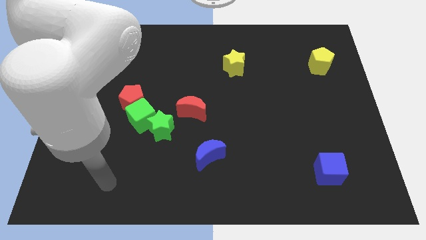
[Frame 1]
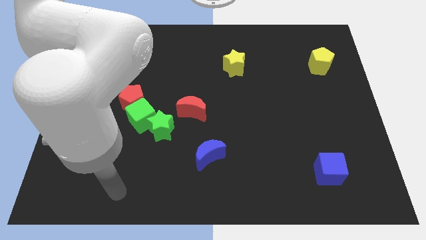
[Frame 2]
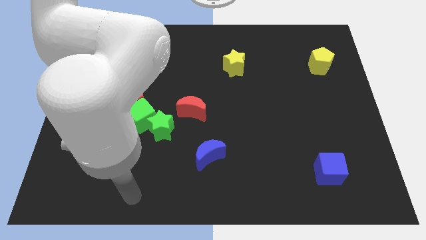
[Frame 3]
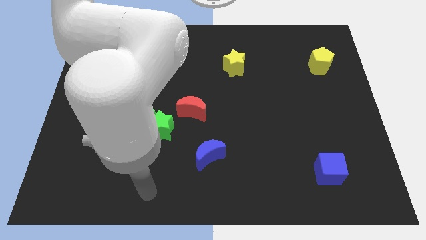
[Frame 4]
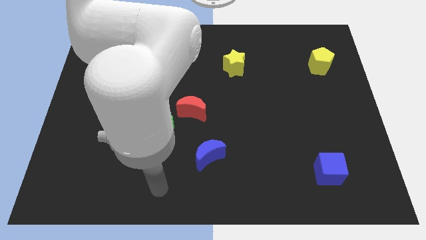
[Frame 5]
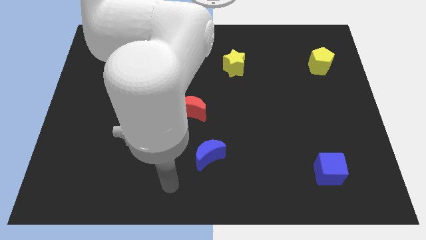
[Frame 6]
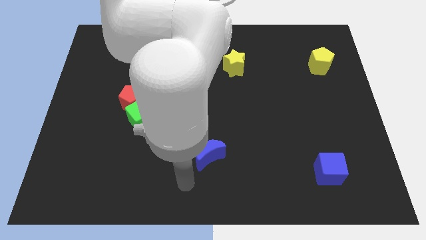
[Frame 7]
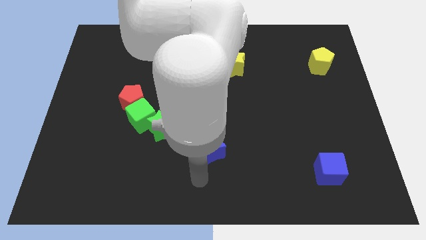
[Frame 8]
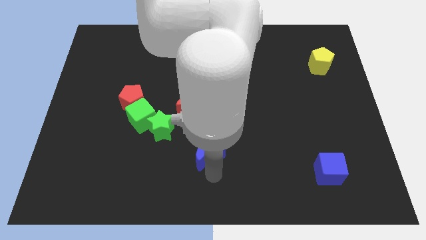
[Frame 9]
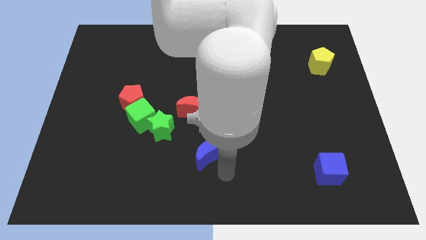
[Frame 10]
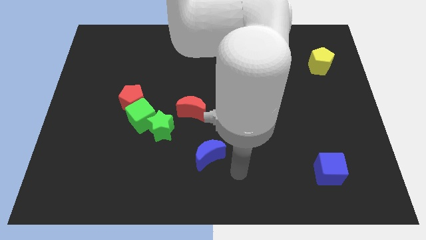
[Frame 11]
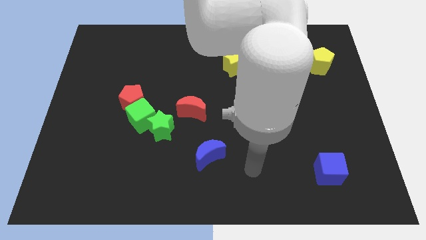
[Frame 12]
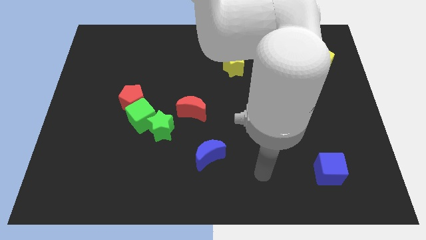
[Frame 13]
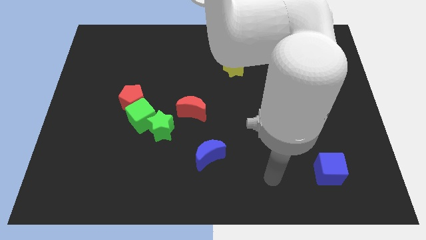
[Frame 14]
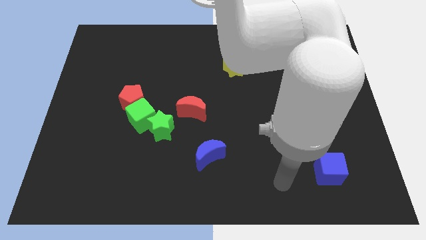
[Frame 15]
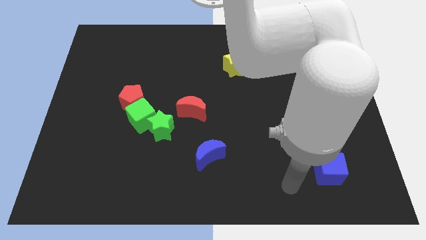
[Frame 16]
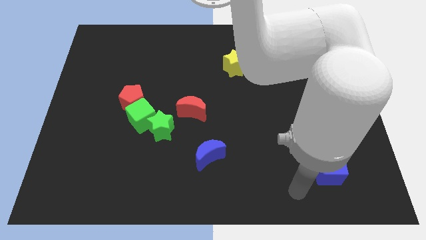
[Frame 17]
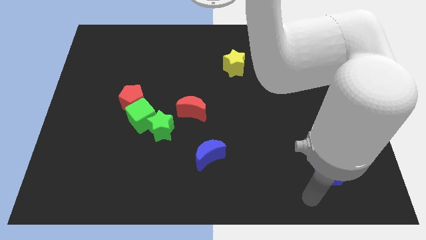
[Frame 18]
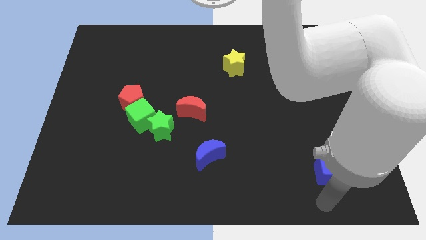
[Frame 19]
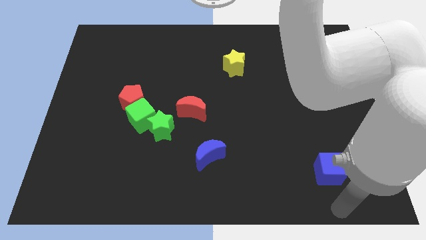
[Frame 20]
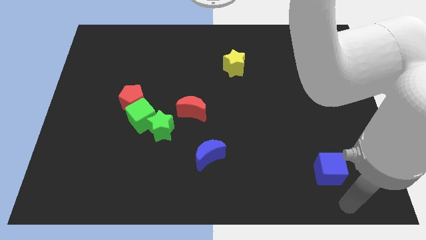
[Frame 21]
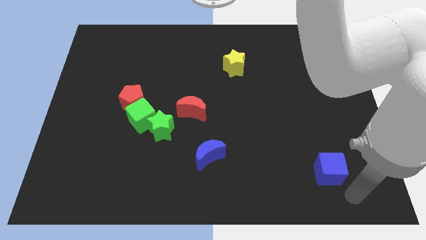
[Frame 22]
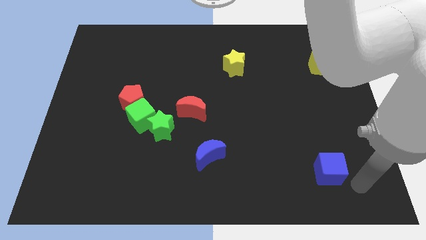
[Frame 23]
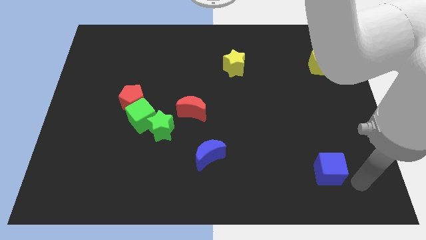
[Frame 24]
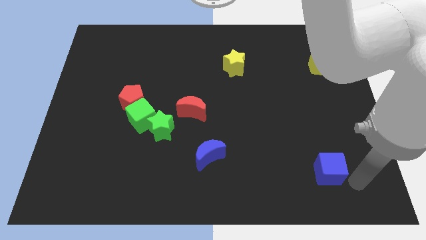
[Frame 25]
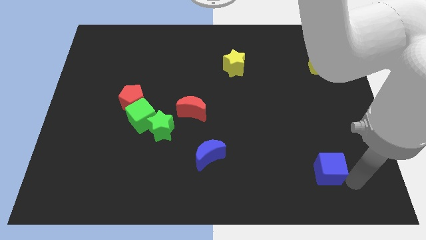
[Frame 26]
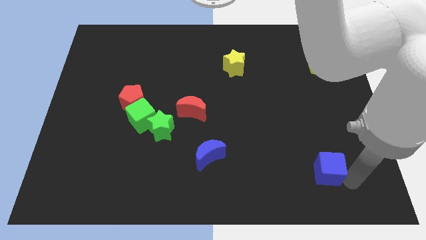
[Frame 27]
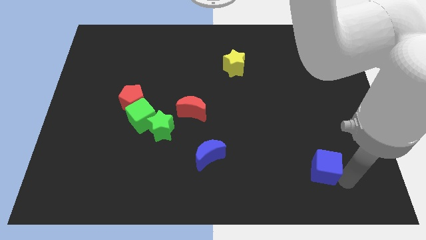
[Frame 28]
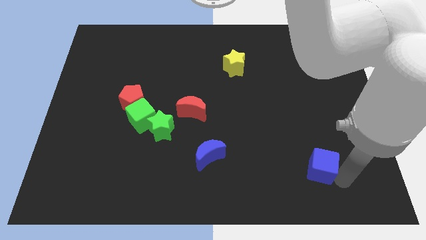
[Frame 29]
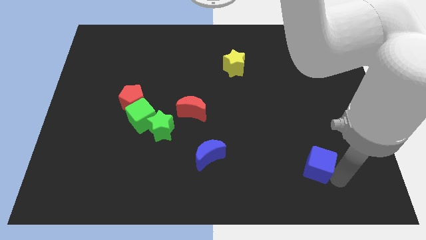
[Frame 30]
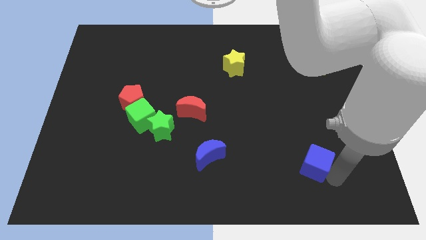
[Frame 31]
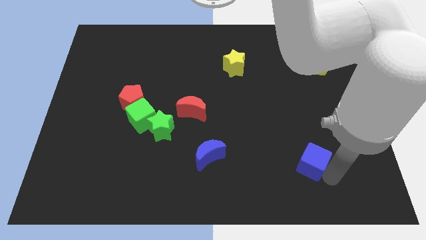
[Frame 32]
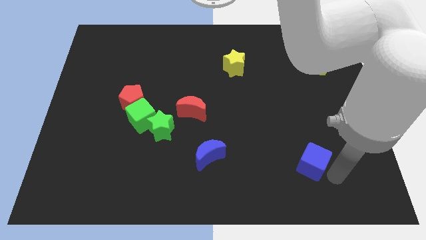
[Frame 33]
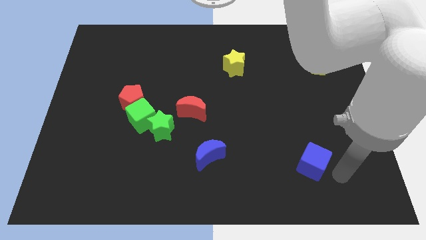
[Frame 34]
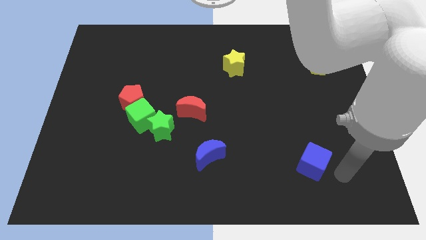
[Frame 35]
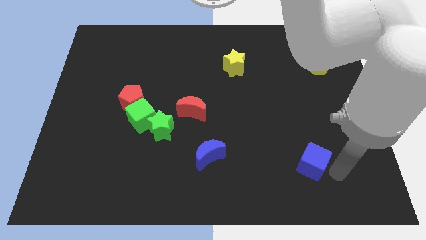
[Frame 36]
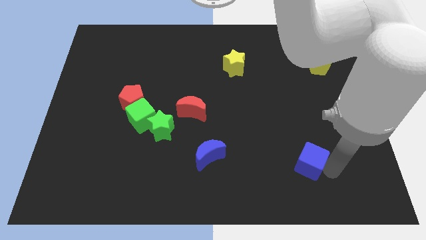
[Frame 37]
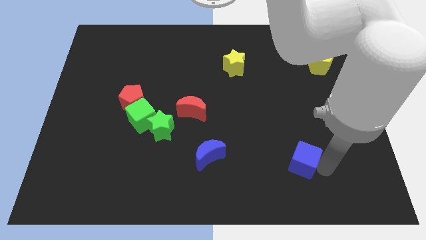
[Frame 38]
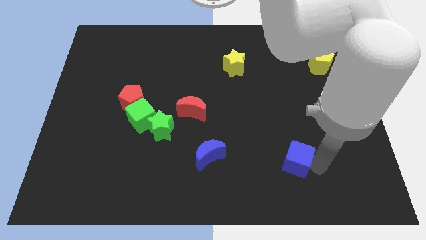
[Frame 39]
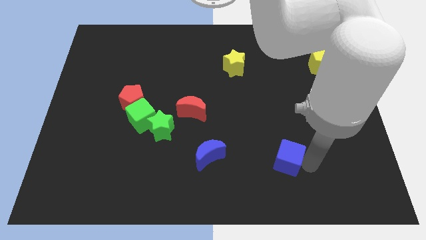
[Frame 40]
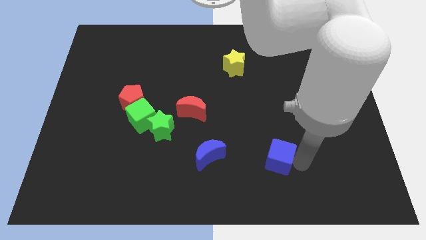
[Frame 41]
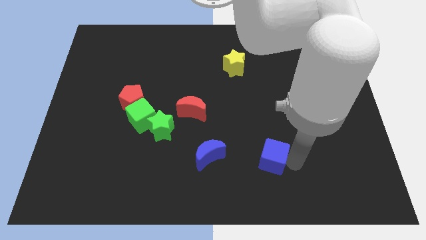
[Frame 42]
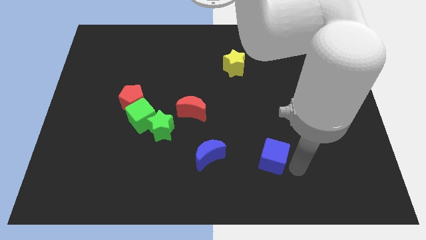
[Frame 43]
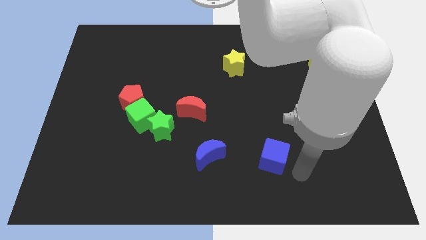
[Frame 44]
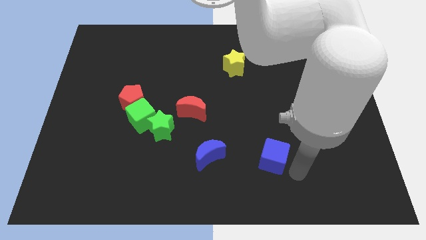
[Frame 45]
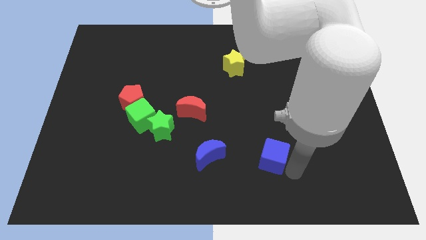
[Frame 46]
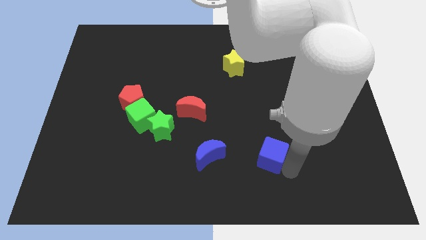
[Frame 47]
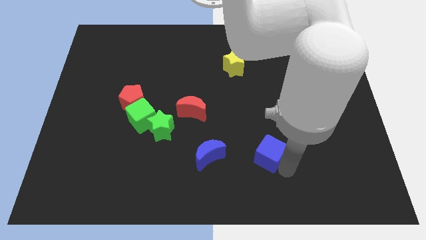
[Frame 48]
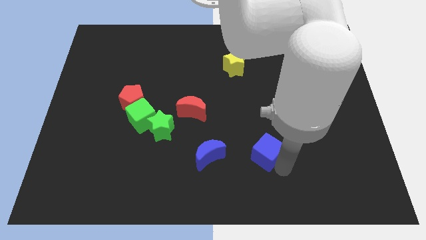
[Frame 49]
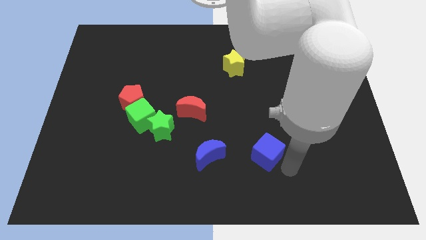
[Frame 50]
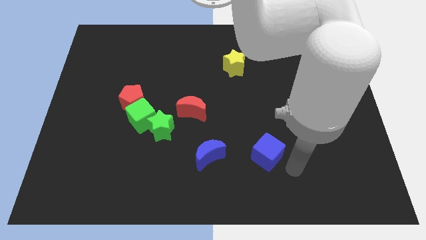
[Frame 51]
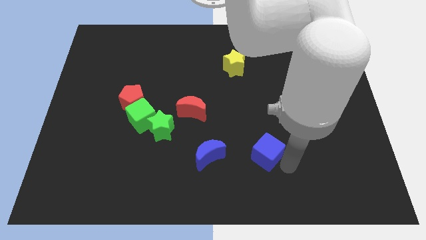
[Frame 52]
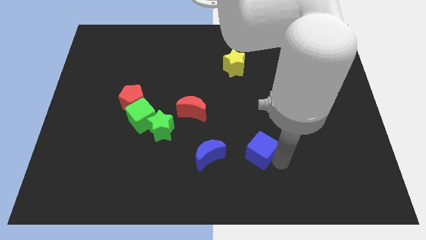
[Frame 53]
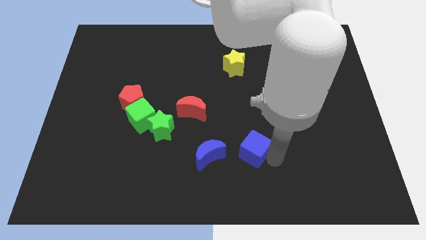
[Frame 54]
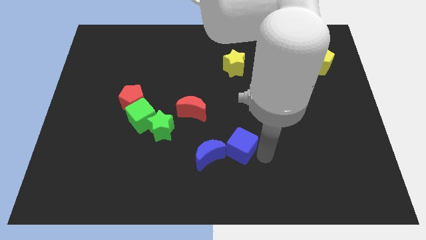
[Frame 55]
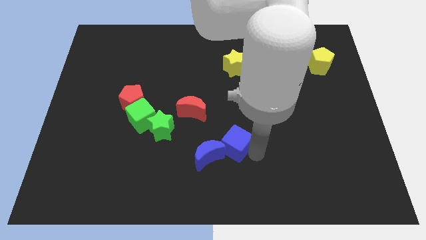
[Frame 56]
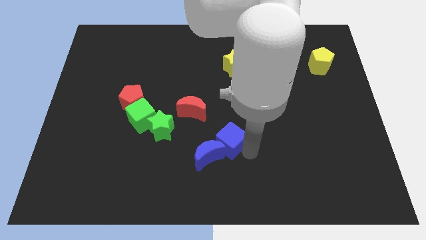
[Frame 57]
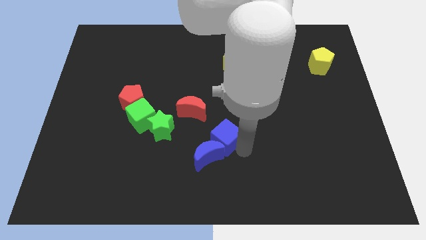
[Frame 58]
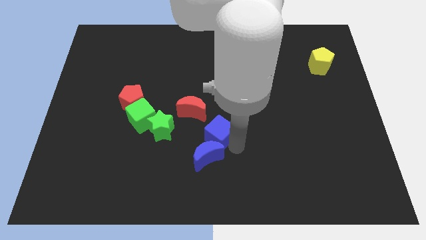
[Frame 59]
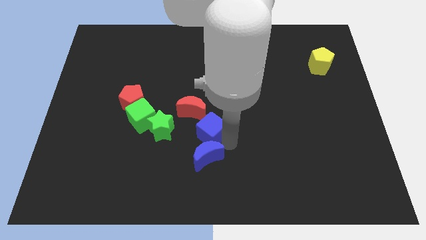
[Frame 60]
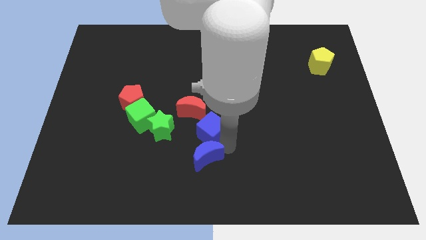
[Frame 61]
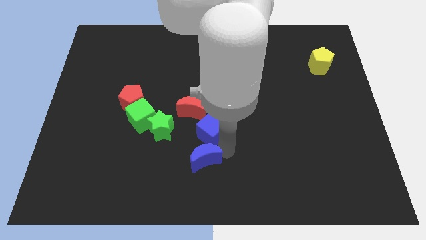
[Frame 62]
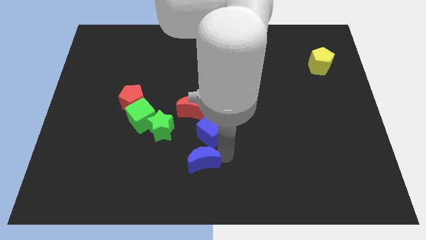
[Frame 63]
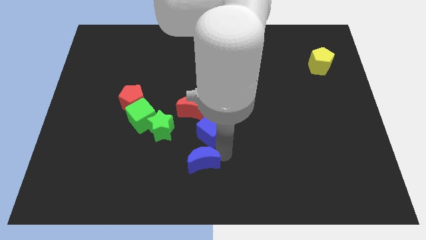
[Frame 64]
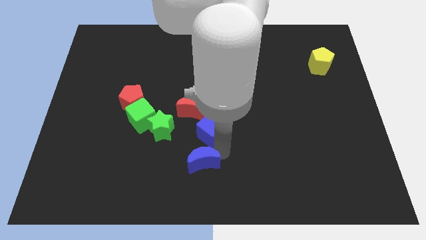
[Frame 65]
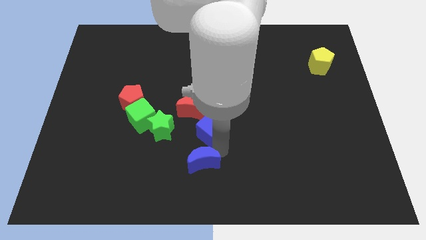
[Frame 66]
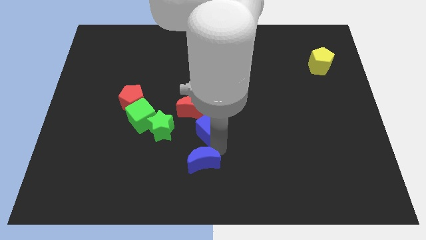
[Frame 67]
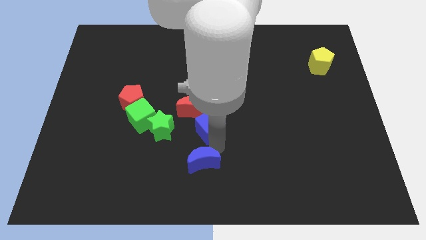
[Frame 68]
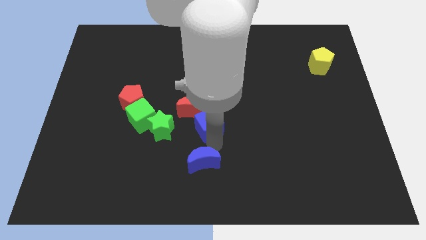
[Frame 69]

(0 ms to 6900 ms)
move the blue cube next to the red moon
